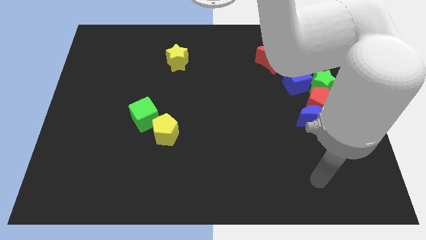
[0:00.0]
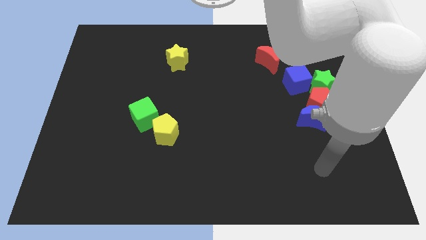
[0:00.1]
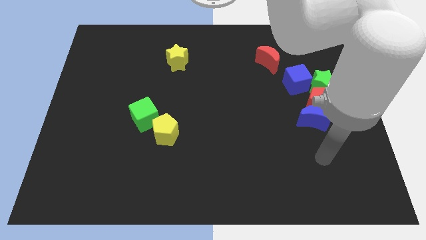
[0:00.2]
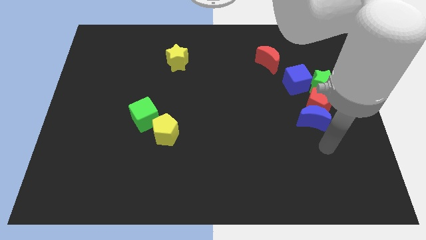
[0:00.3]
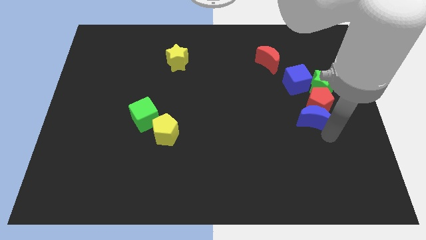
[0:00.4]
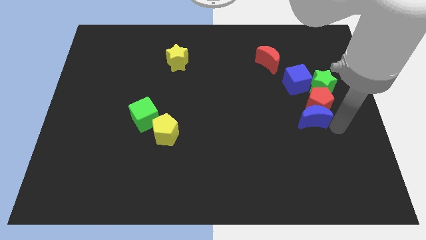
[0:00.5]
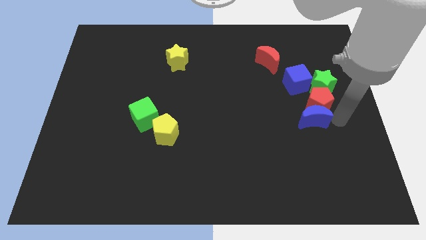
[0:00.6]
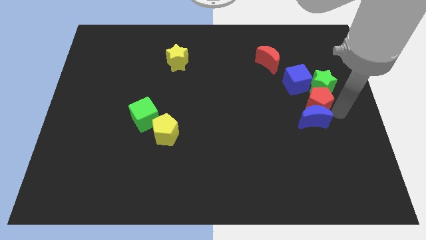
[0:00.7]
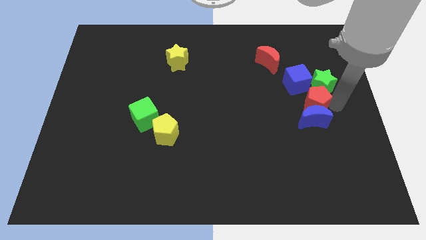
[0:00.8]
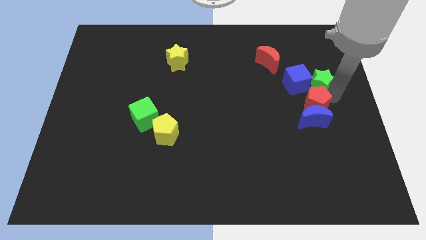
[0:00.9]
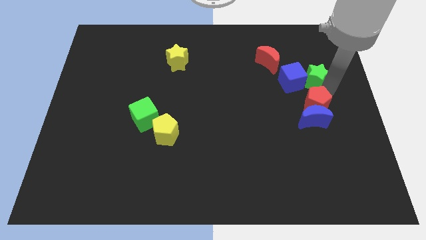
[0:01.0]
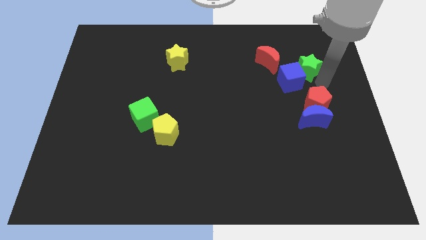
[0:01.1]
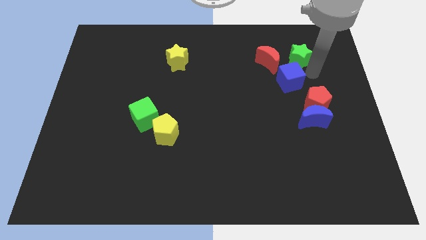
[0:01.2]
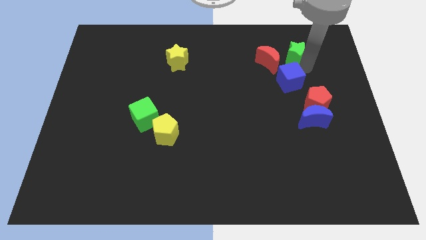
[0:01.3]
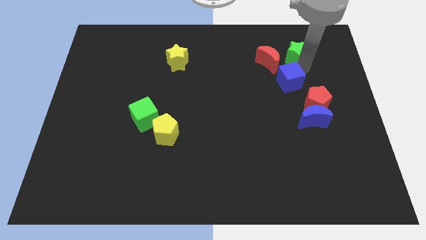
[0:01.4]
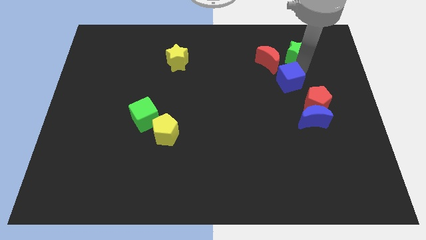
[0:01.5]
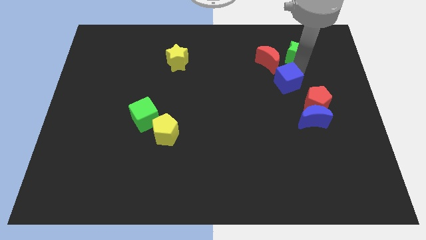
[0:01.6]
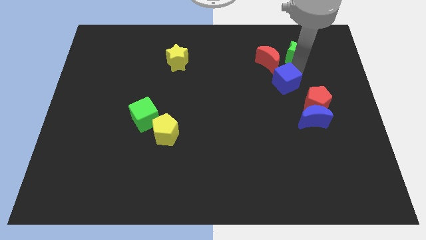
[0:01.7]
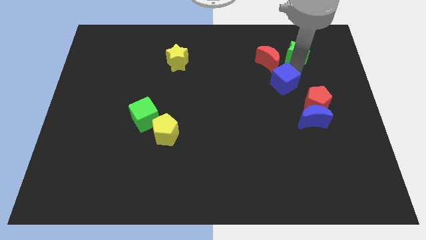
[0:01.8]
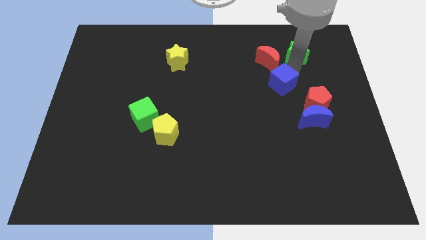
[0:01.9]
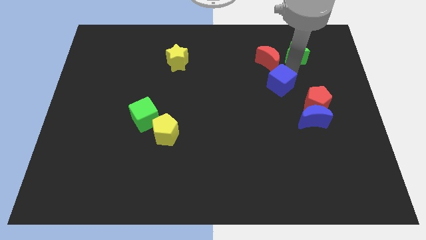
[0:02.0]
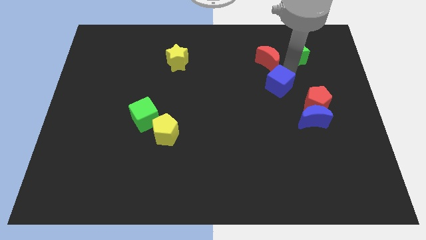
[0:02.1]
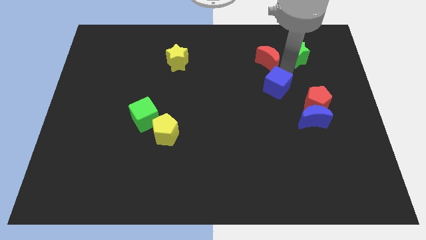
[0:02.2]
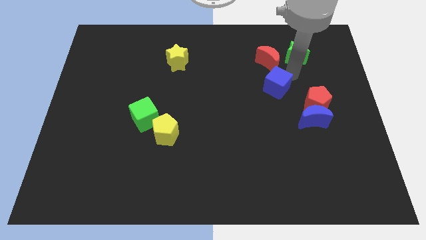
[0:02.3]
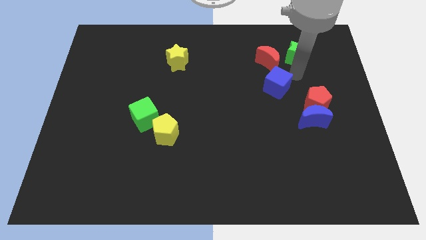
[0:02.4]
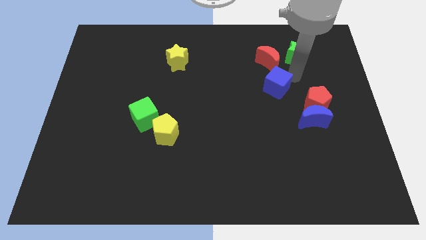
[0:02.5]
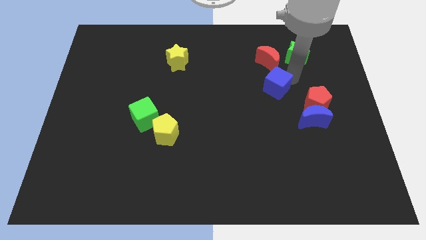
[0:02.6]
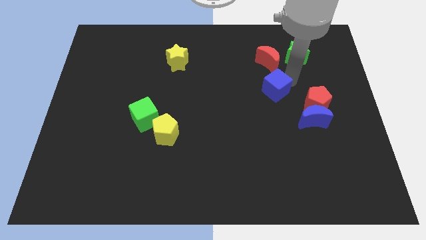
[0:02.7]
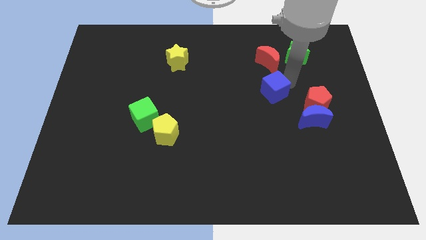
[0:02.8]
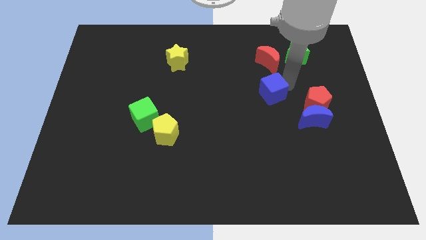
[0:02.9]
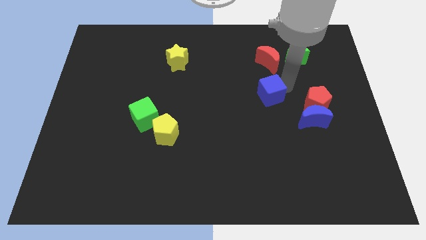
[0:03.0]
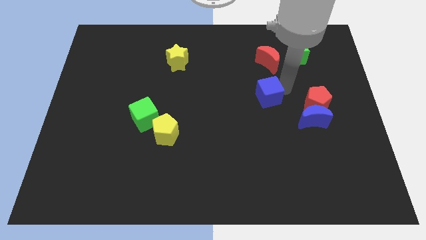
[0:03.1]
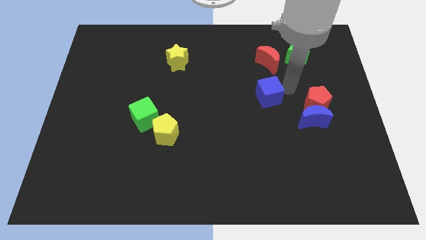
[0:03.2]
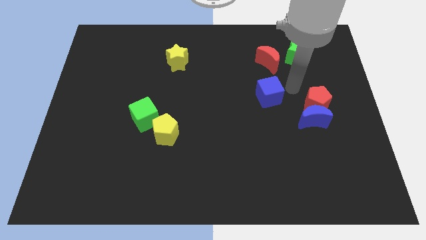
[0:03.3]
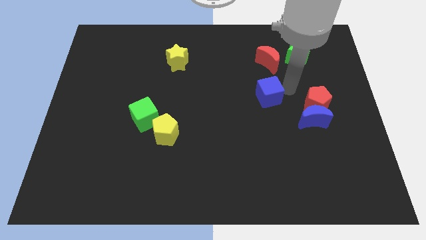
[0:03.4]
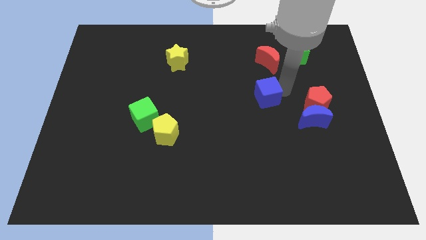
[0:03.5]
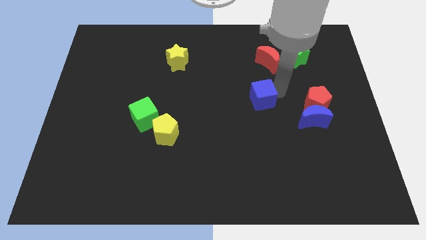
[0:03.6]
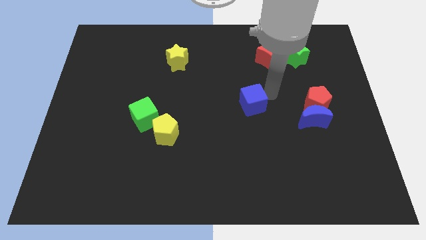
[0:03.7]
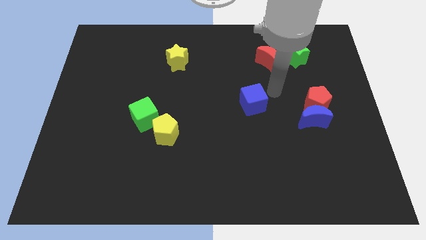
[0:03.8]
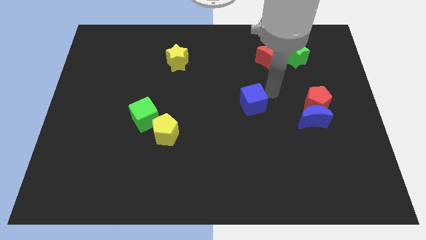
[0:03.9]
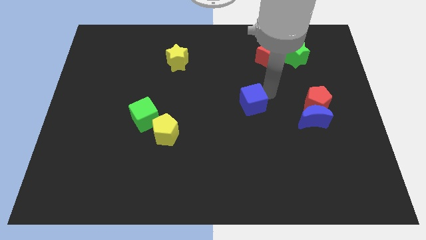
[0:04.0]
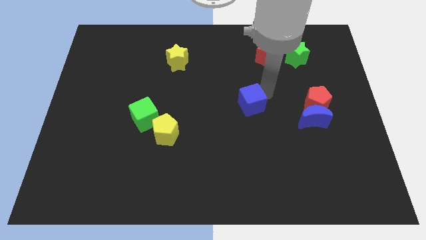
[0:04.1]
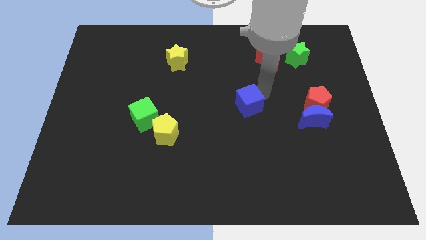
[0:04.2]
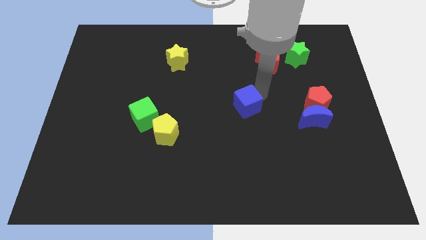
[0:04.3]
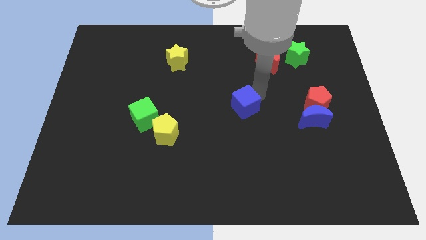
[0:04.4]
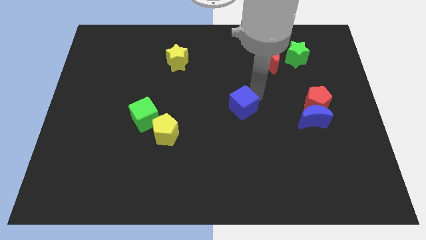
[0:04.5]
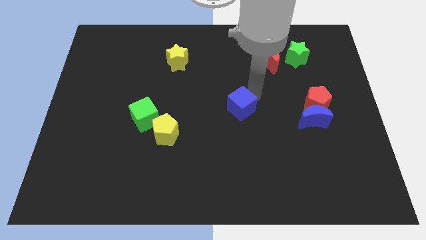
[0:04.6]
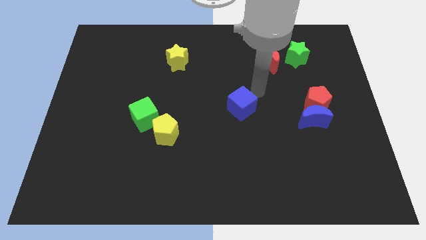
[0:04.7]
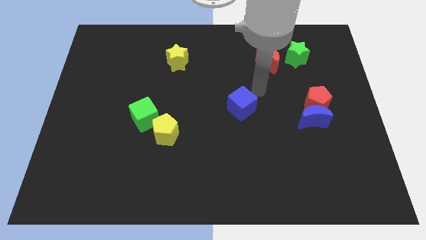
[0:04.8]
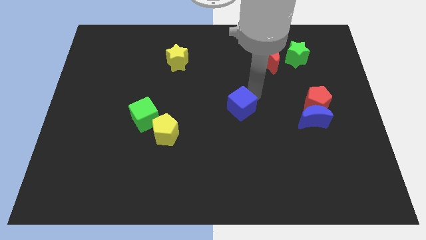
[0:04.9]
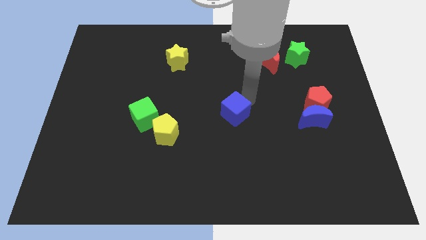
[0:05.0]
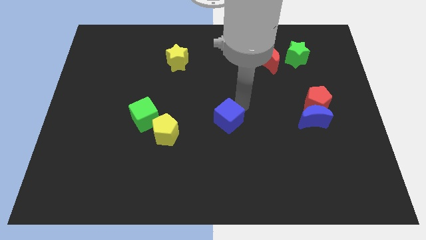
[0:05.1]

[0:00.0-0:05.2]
put the blue cube to the right side of the yellow pentagon

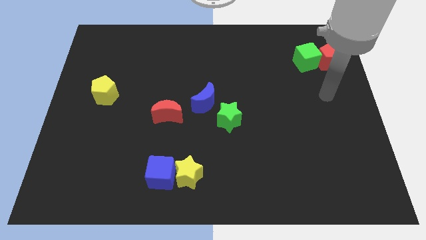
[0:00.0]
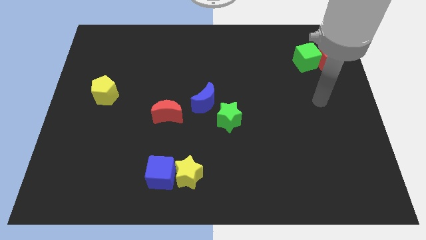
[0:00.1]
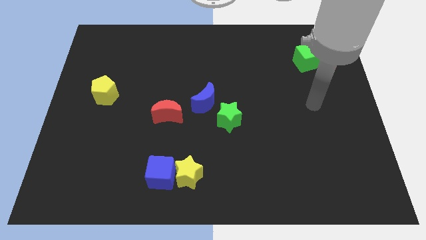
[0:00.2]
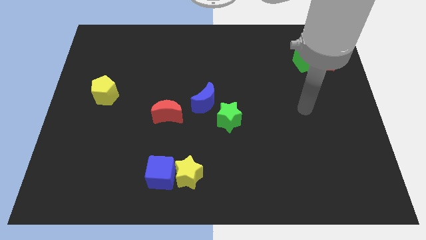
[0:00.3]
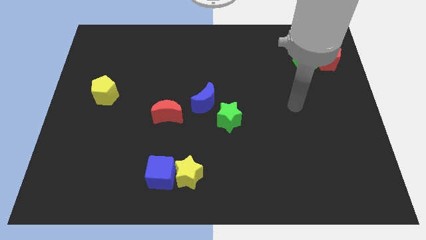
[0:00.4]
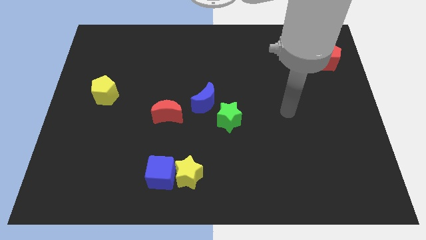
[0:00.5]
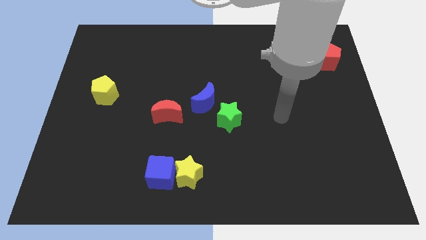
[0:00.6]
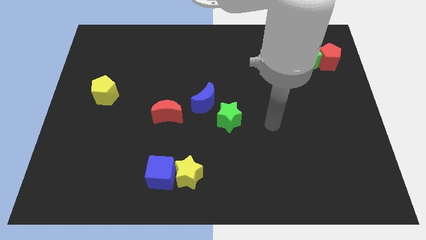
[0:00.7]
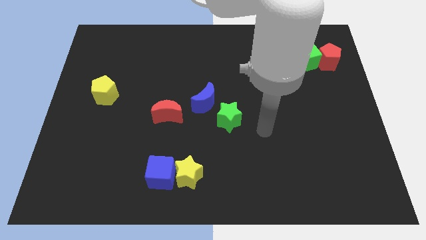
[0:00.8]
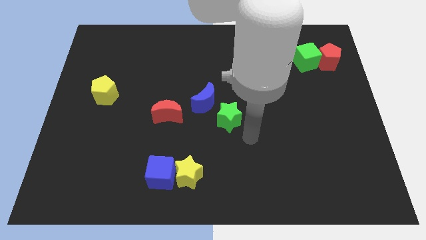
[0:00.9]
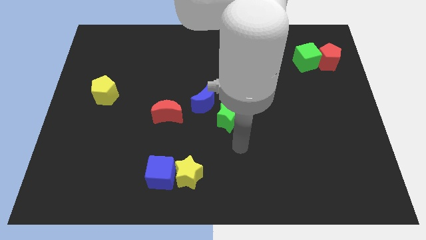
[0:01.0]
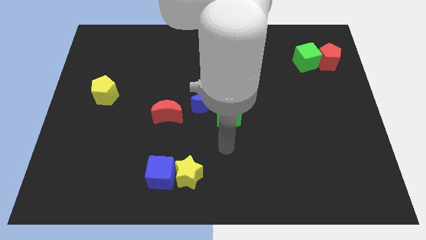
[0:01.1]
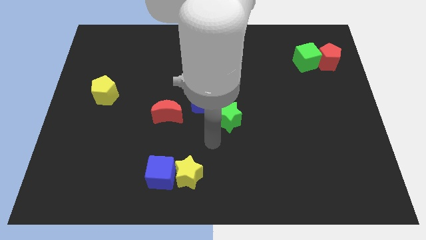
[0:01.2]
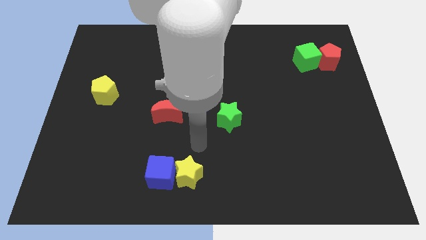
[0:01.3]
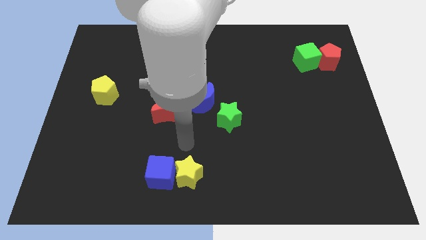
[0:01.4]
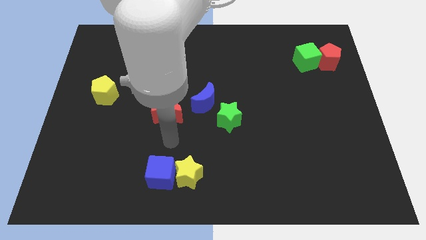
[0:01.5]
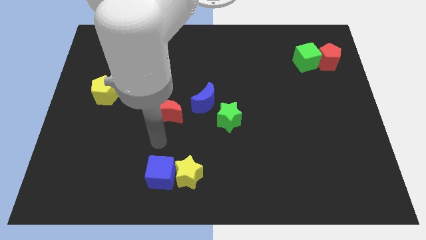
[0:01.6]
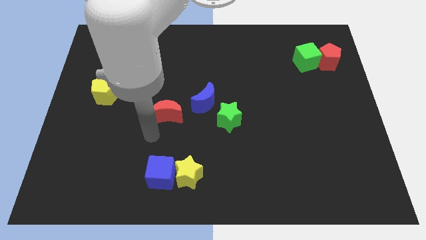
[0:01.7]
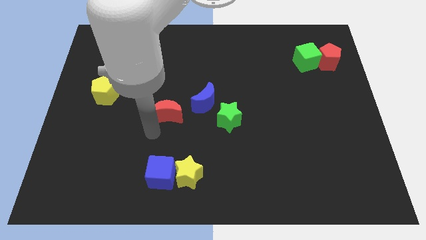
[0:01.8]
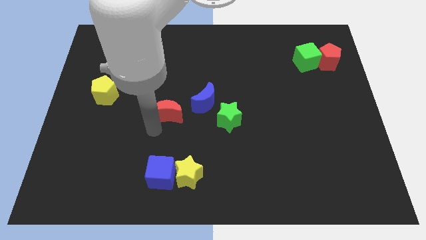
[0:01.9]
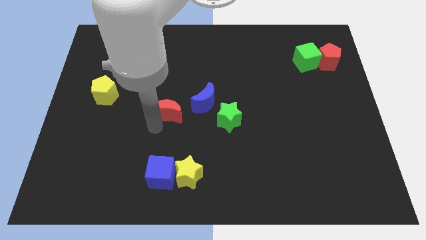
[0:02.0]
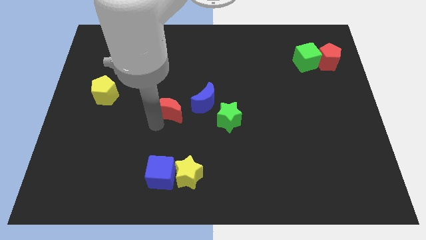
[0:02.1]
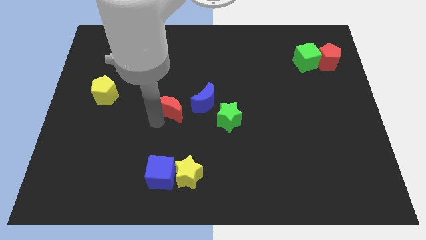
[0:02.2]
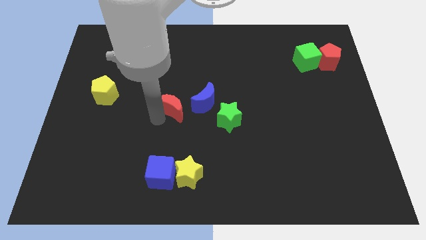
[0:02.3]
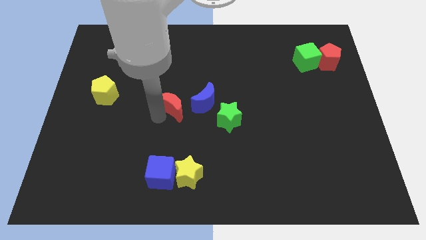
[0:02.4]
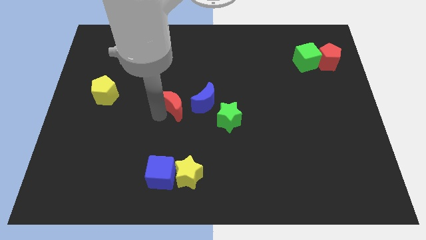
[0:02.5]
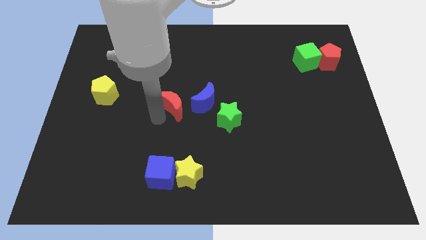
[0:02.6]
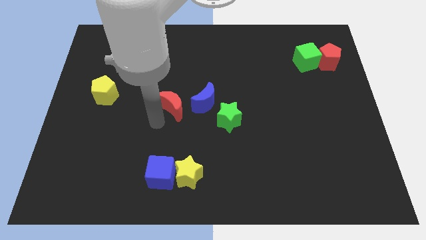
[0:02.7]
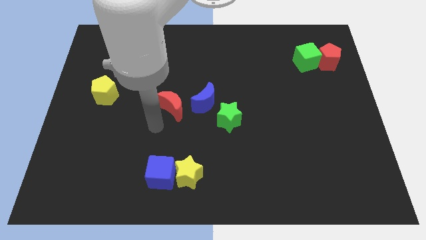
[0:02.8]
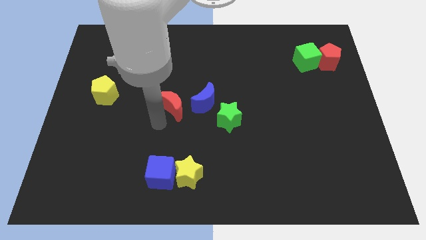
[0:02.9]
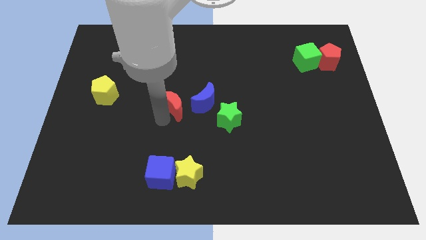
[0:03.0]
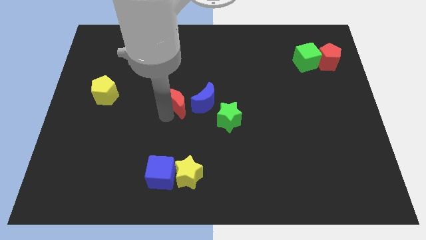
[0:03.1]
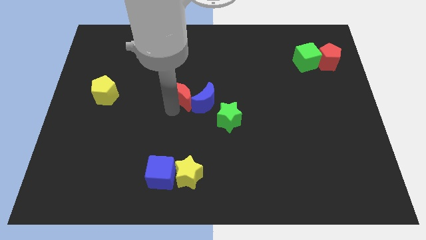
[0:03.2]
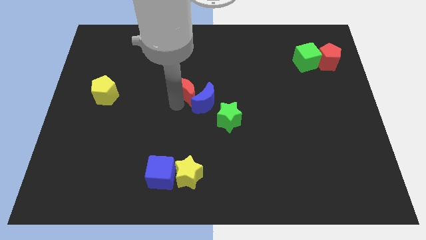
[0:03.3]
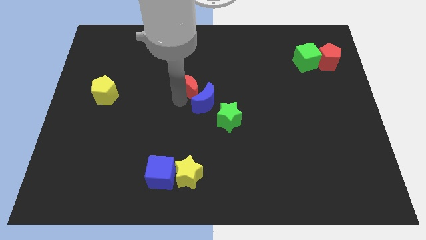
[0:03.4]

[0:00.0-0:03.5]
put the red moon to the top of the blue moon
